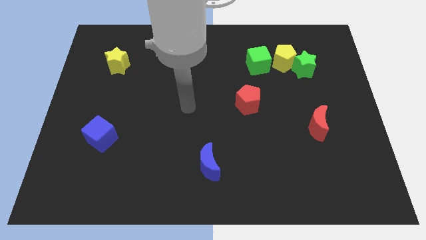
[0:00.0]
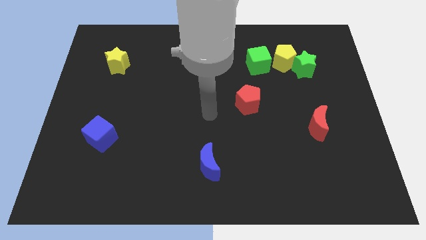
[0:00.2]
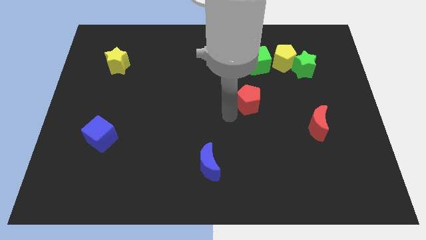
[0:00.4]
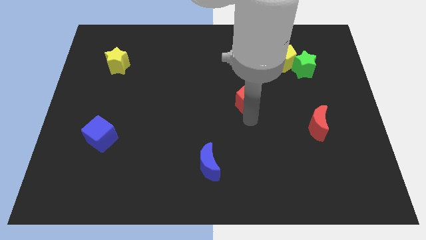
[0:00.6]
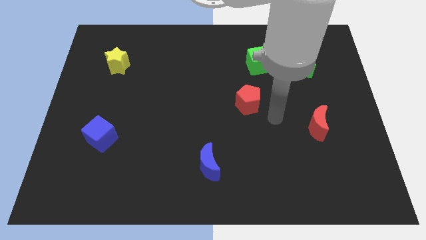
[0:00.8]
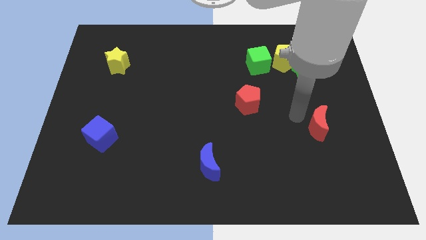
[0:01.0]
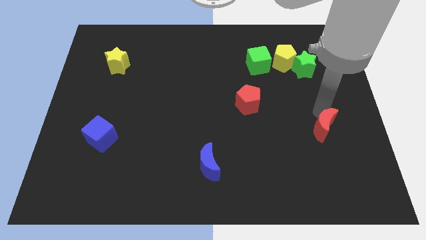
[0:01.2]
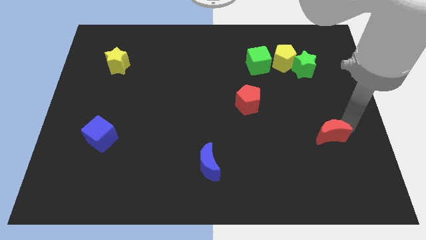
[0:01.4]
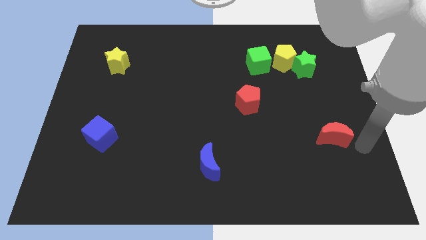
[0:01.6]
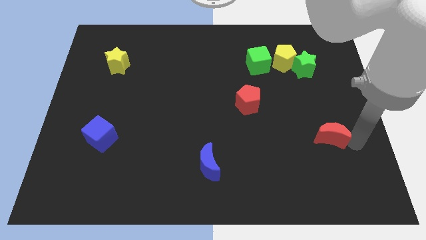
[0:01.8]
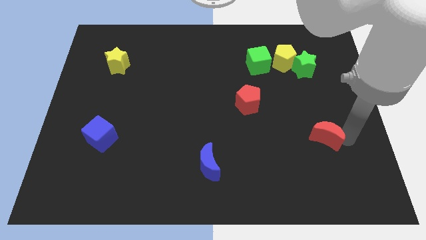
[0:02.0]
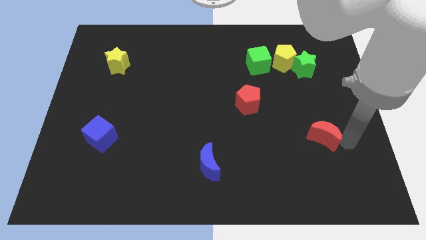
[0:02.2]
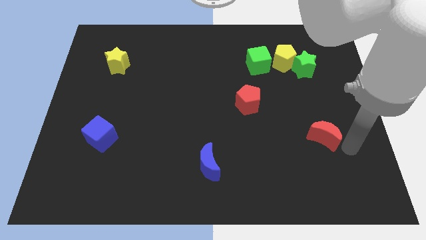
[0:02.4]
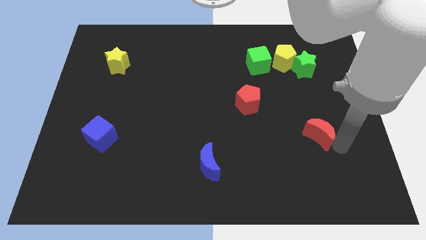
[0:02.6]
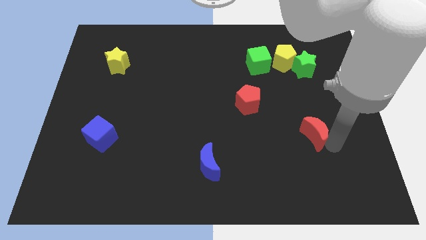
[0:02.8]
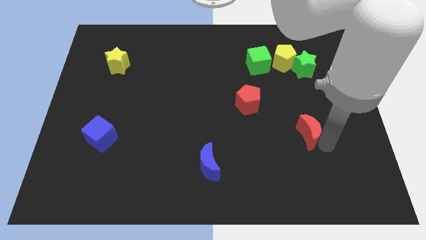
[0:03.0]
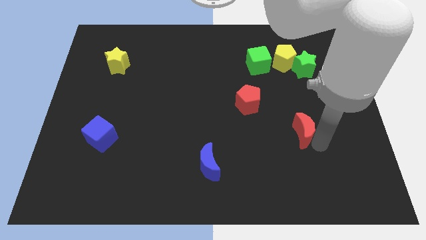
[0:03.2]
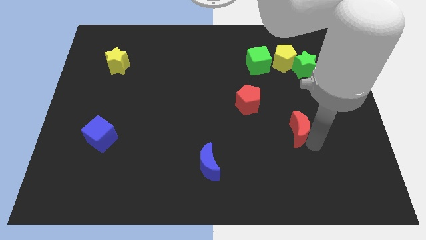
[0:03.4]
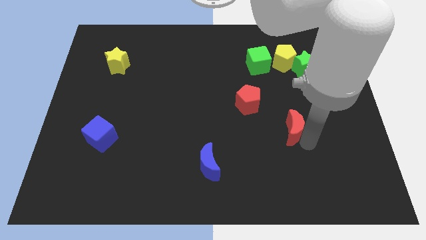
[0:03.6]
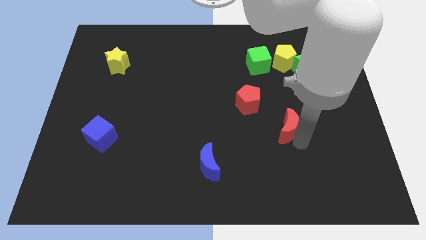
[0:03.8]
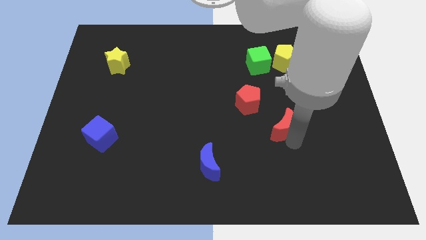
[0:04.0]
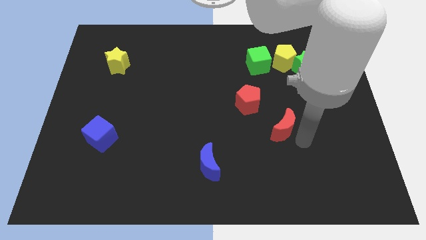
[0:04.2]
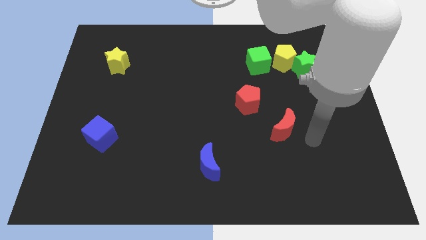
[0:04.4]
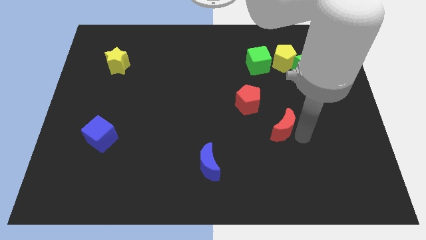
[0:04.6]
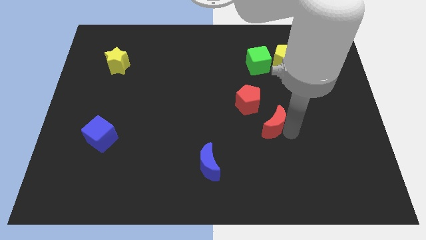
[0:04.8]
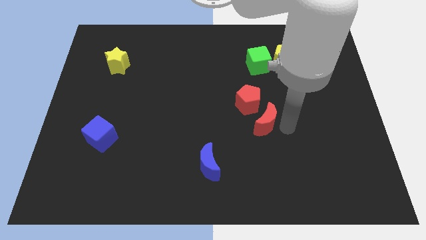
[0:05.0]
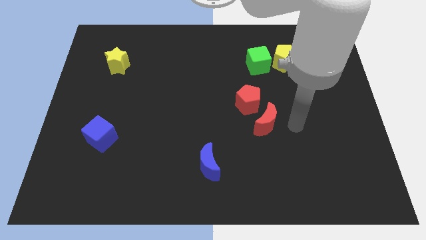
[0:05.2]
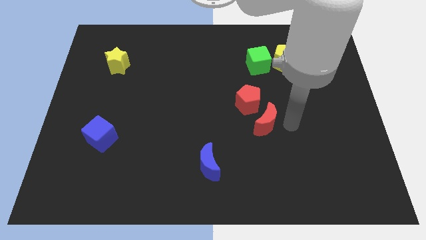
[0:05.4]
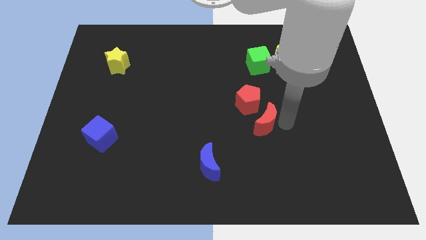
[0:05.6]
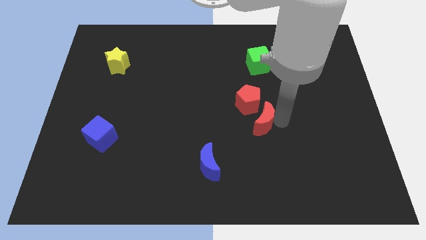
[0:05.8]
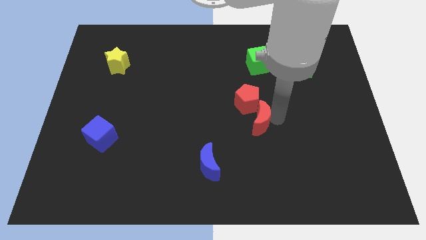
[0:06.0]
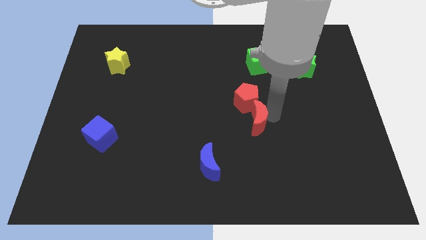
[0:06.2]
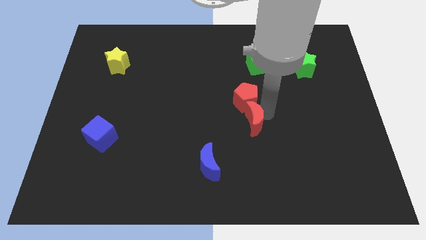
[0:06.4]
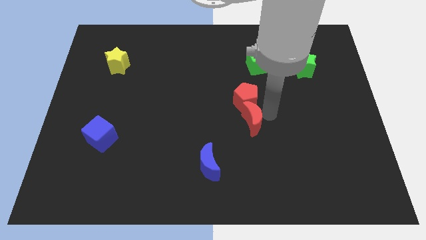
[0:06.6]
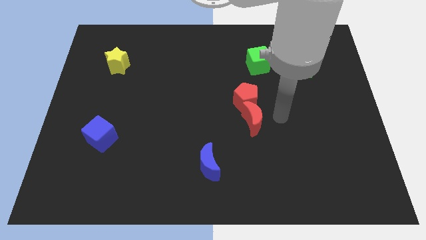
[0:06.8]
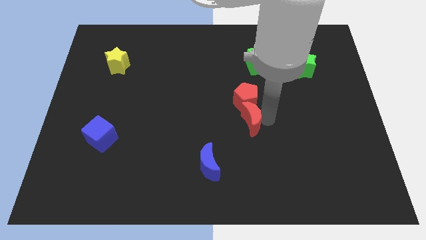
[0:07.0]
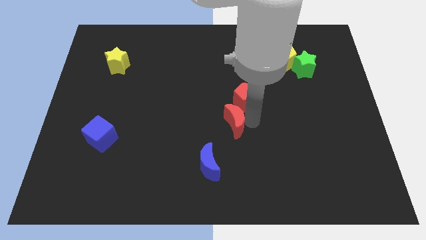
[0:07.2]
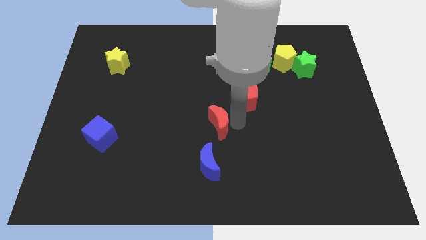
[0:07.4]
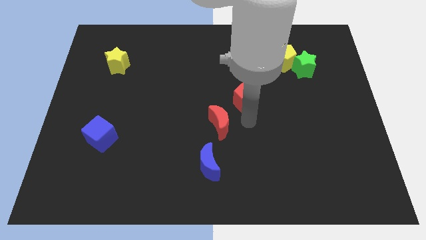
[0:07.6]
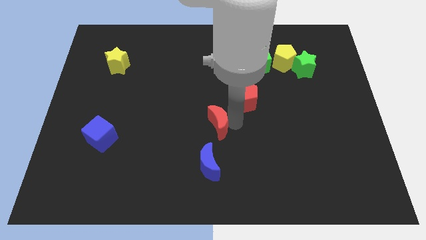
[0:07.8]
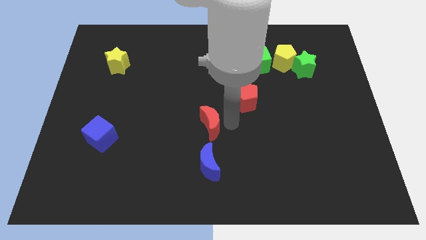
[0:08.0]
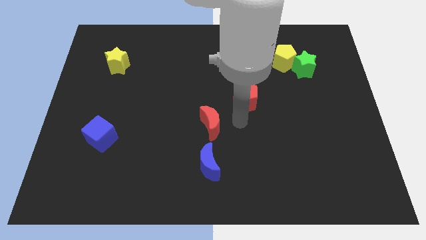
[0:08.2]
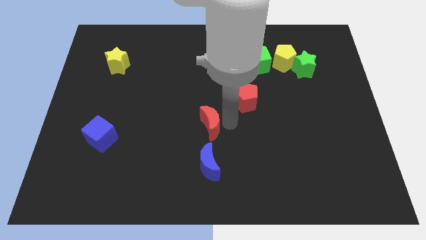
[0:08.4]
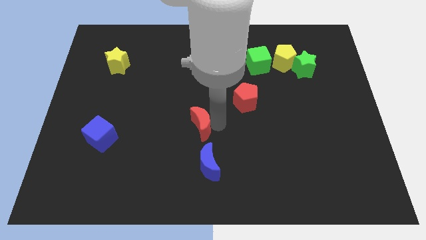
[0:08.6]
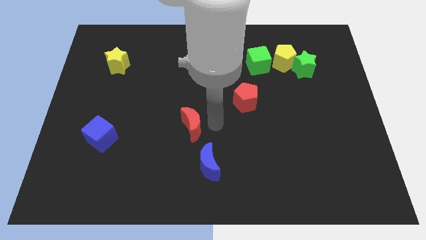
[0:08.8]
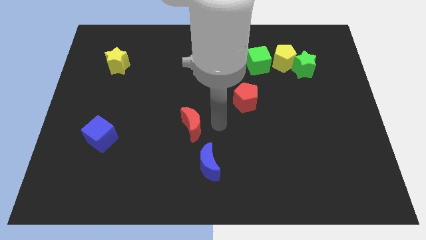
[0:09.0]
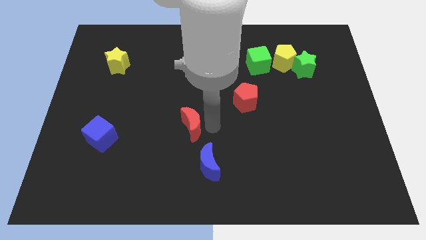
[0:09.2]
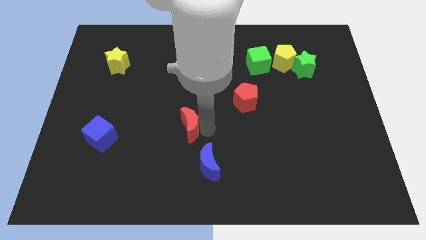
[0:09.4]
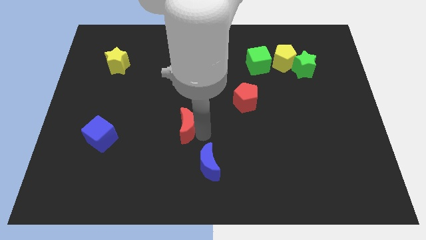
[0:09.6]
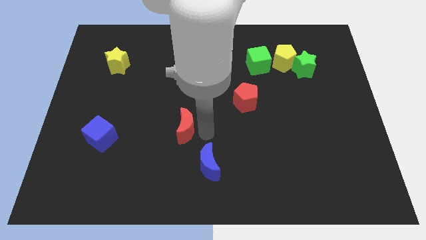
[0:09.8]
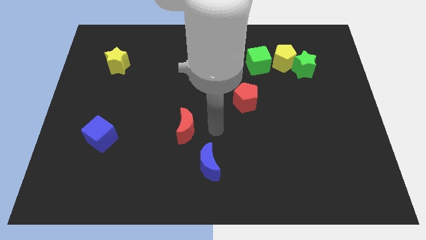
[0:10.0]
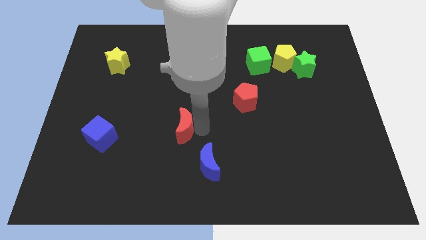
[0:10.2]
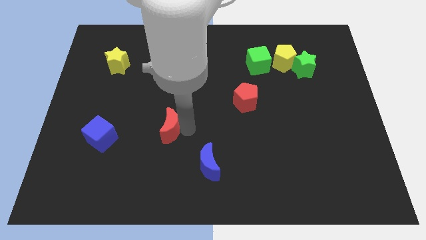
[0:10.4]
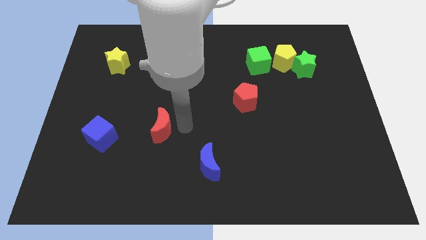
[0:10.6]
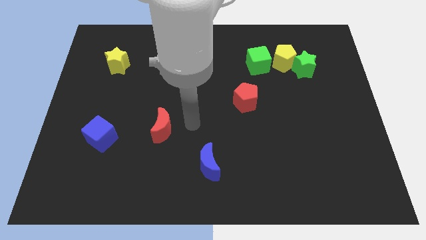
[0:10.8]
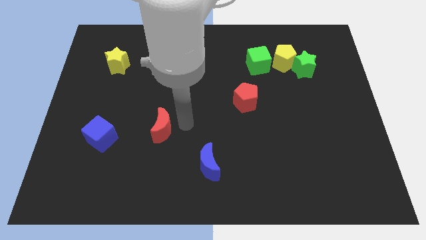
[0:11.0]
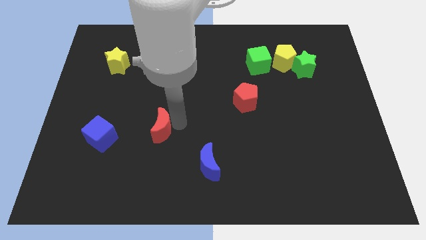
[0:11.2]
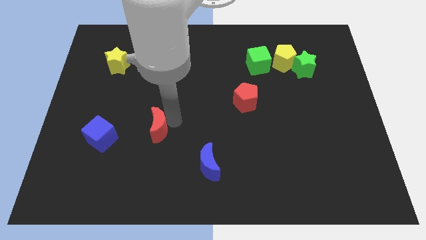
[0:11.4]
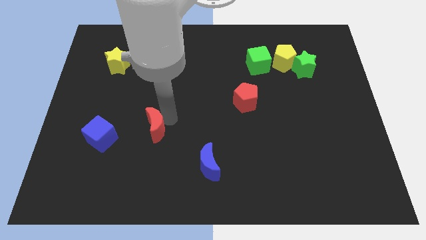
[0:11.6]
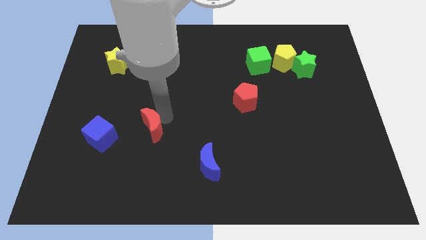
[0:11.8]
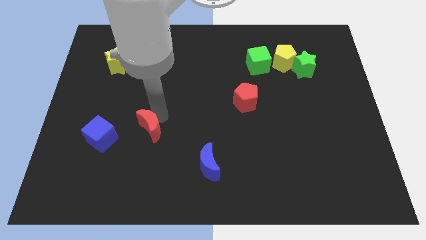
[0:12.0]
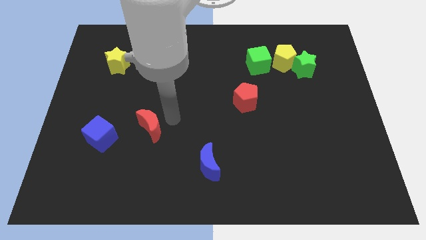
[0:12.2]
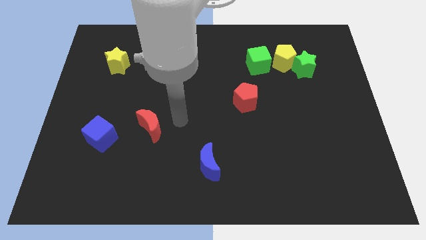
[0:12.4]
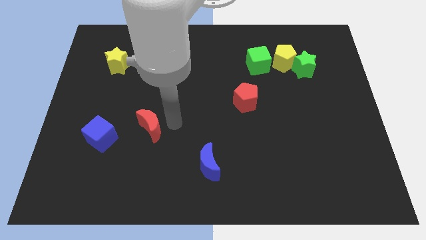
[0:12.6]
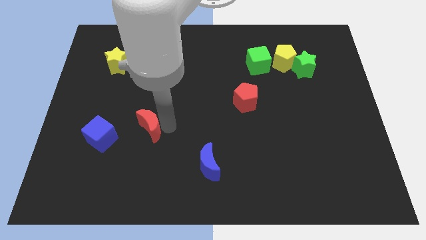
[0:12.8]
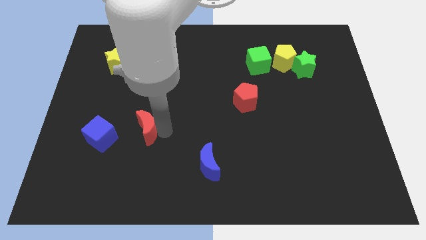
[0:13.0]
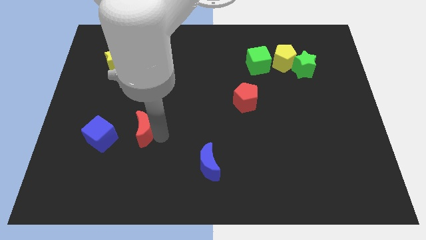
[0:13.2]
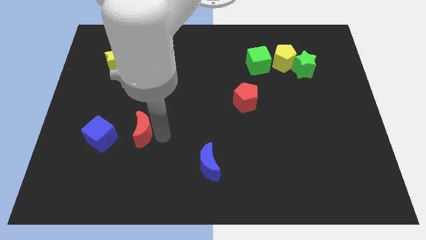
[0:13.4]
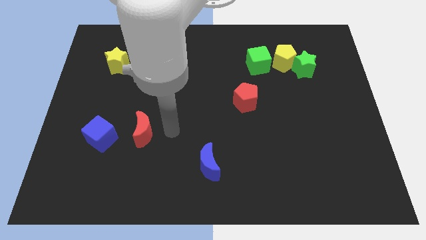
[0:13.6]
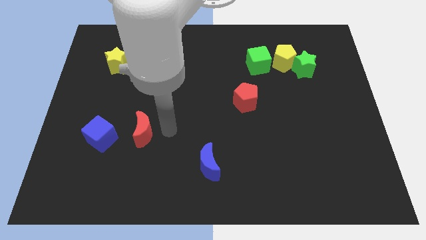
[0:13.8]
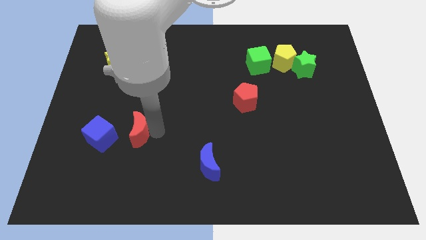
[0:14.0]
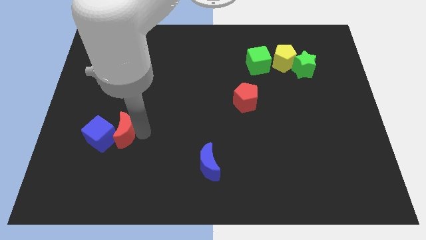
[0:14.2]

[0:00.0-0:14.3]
push the red moon close to the blue cube
